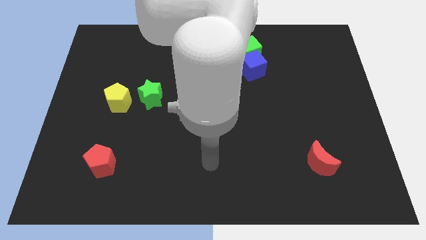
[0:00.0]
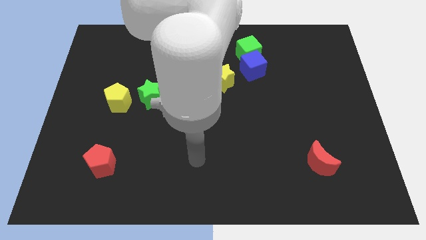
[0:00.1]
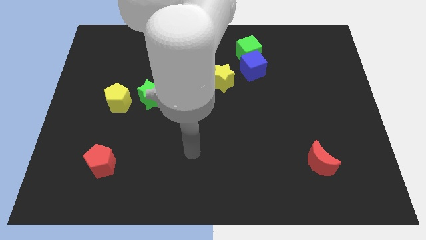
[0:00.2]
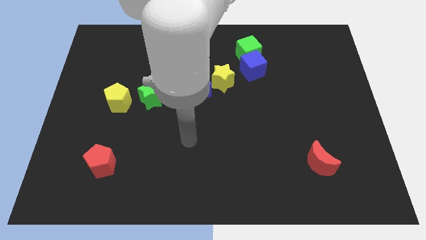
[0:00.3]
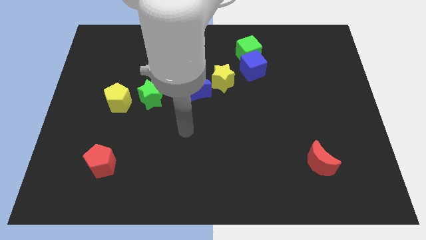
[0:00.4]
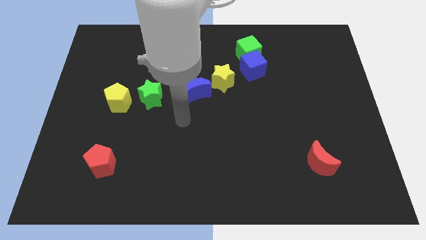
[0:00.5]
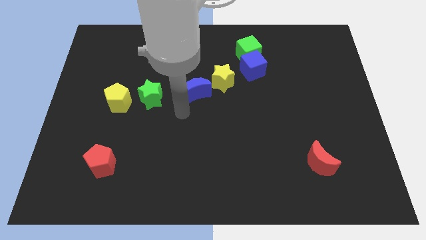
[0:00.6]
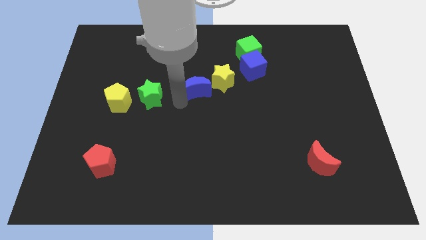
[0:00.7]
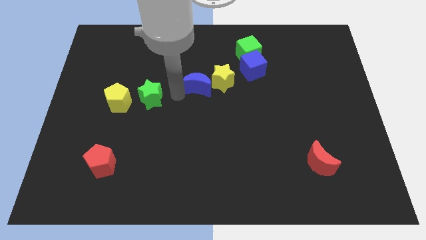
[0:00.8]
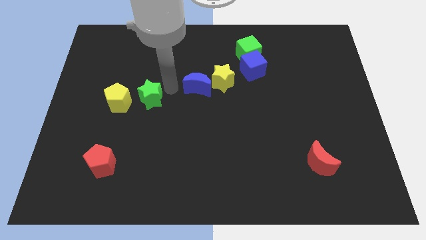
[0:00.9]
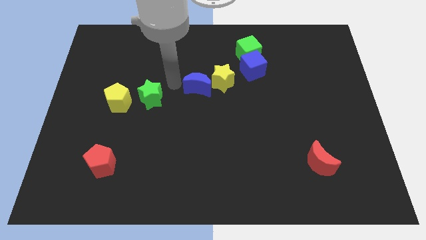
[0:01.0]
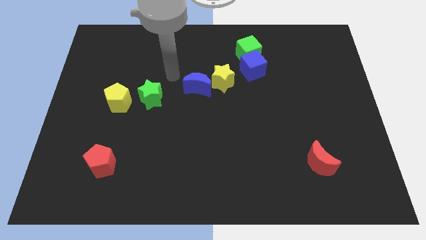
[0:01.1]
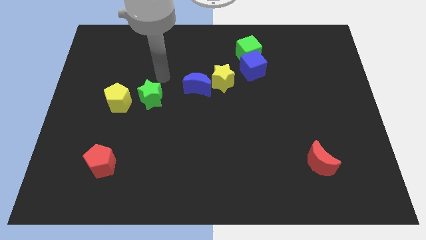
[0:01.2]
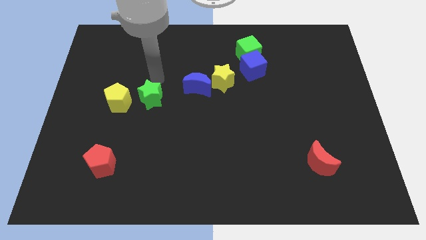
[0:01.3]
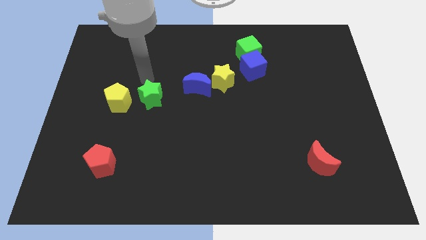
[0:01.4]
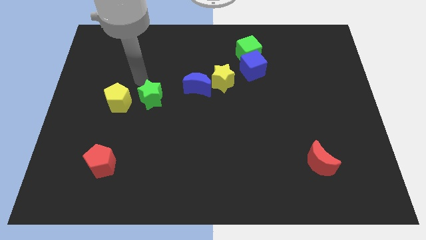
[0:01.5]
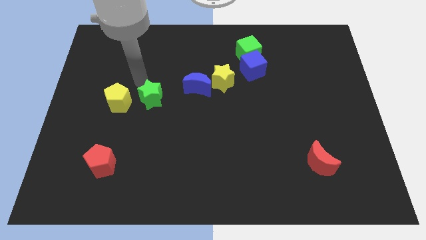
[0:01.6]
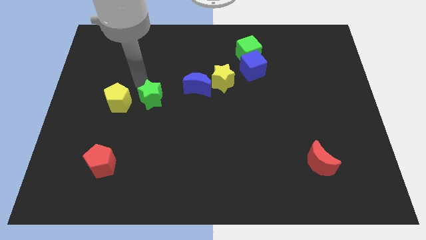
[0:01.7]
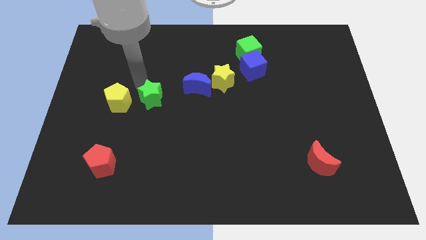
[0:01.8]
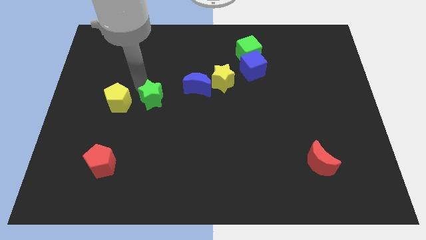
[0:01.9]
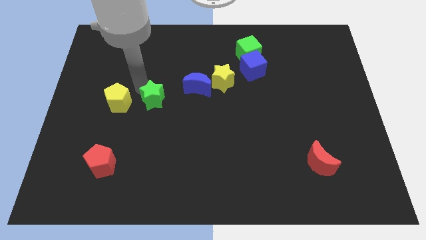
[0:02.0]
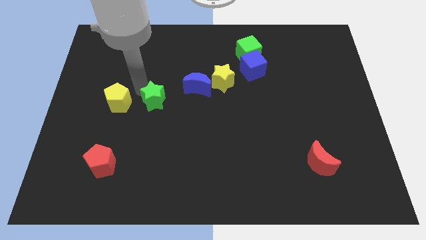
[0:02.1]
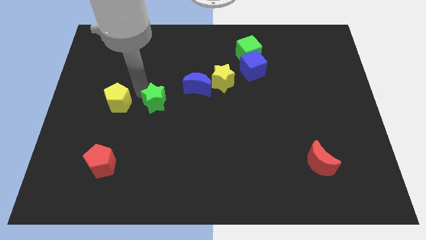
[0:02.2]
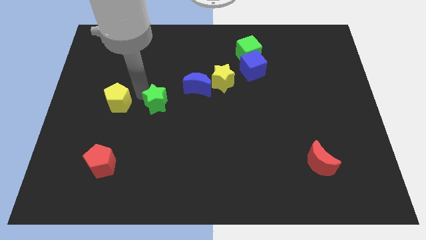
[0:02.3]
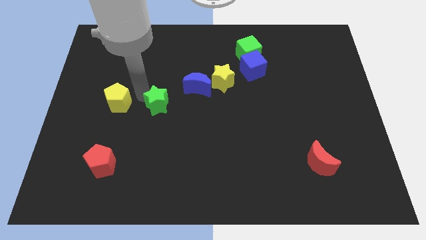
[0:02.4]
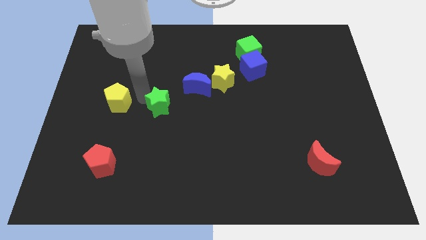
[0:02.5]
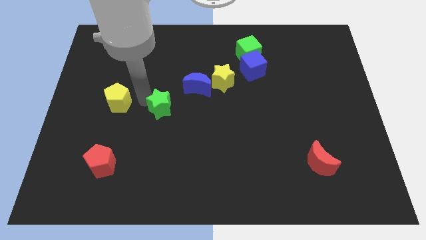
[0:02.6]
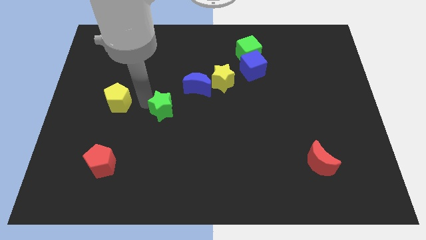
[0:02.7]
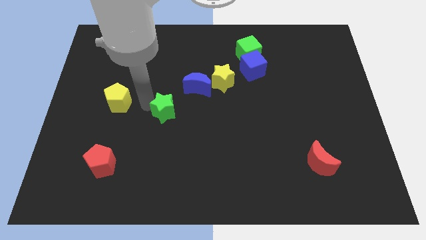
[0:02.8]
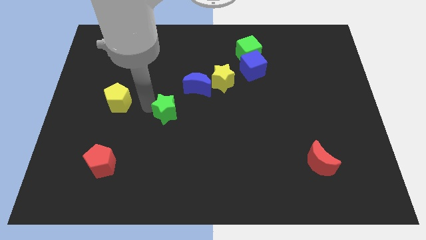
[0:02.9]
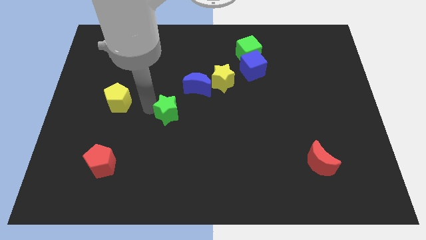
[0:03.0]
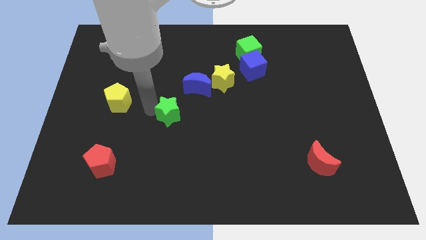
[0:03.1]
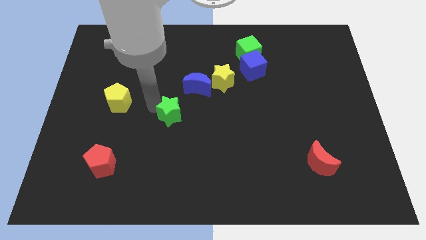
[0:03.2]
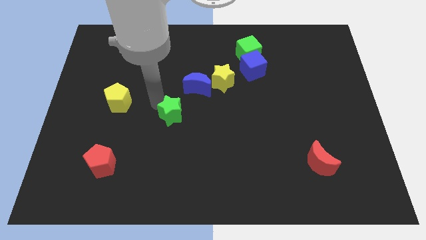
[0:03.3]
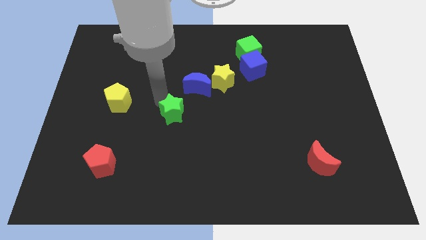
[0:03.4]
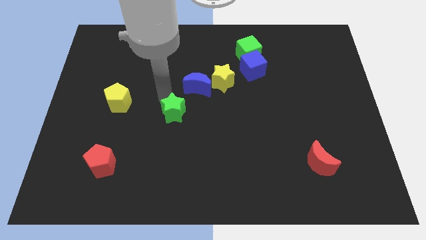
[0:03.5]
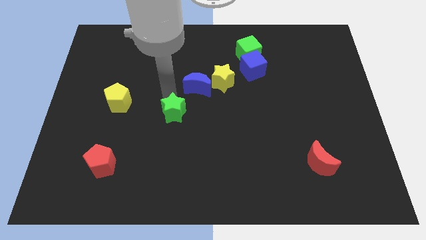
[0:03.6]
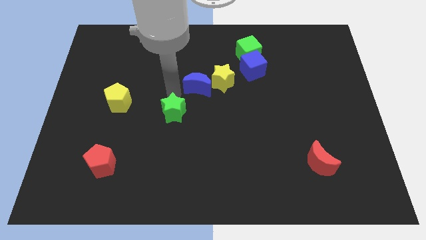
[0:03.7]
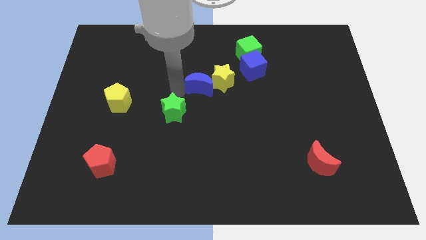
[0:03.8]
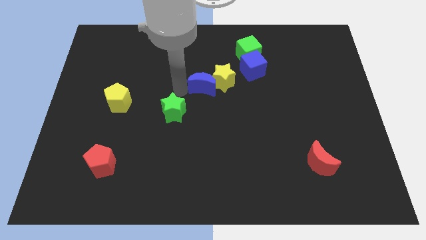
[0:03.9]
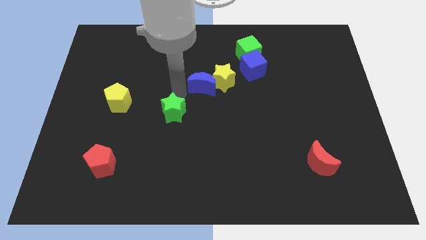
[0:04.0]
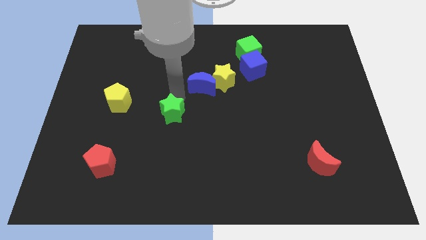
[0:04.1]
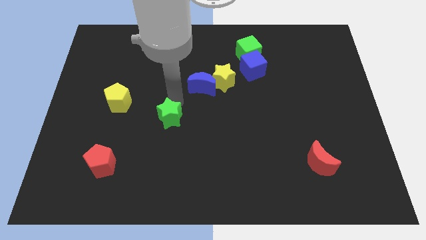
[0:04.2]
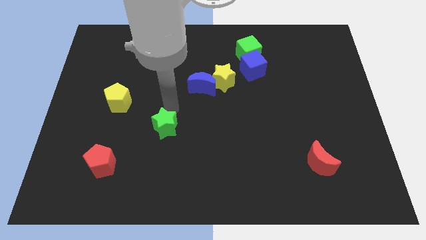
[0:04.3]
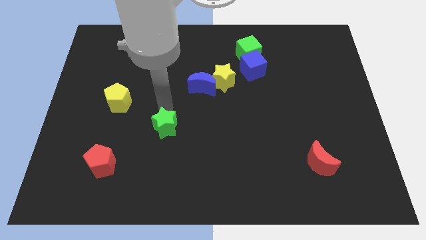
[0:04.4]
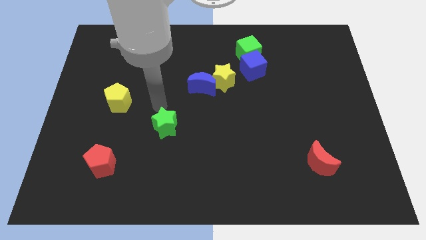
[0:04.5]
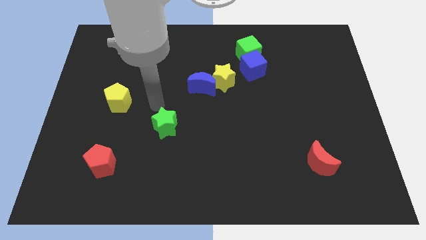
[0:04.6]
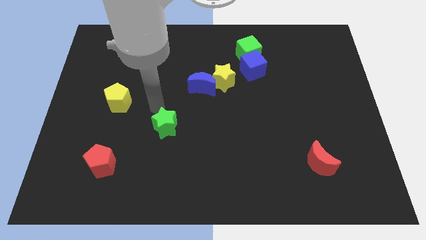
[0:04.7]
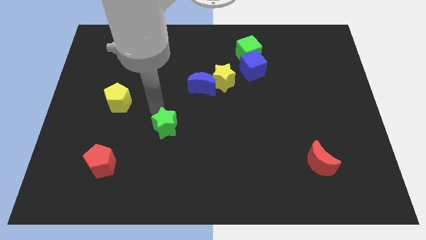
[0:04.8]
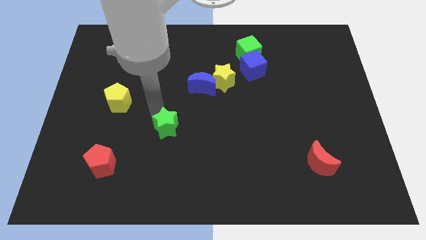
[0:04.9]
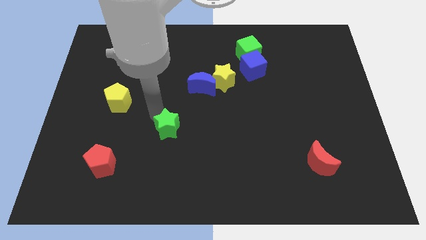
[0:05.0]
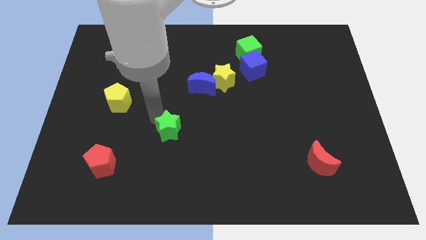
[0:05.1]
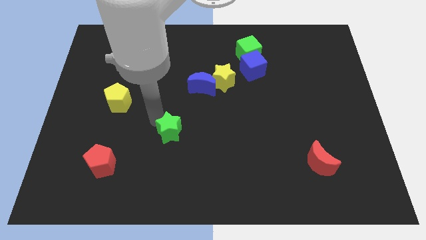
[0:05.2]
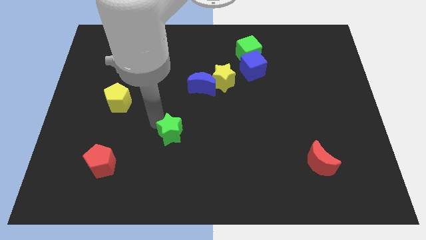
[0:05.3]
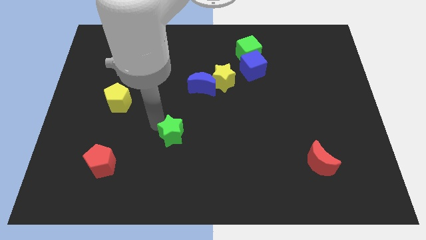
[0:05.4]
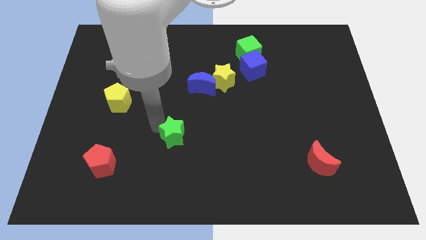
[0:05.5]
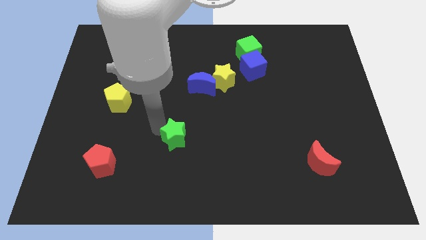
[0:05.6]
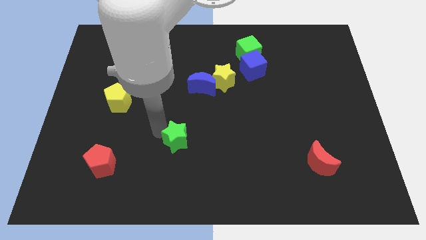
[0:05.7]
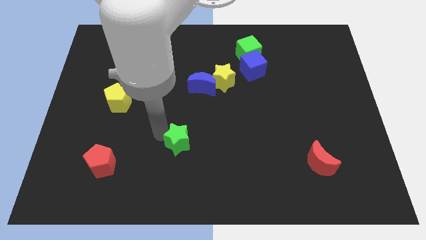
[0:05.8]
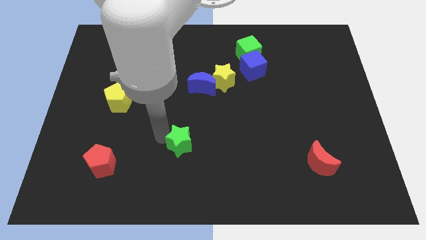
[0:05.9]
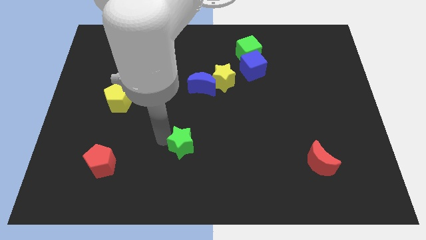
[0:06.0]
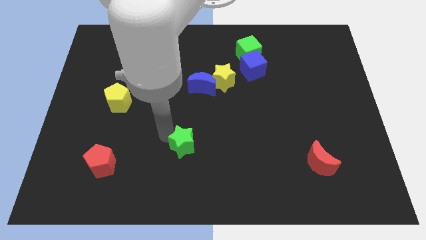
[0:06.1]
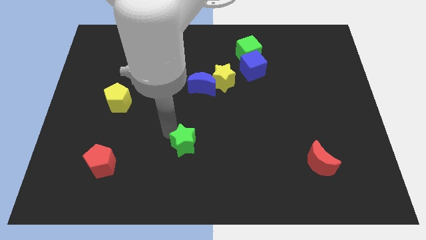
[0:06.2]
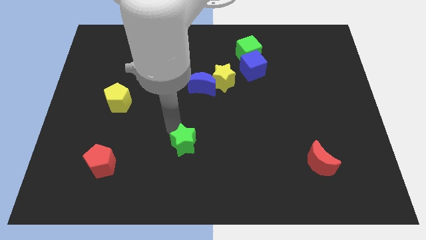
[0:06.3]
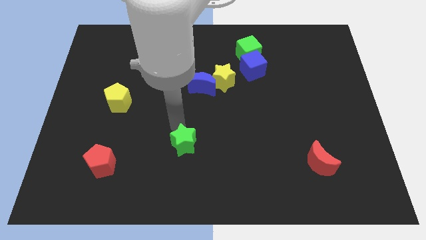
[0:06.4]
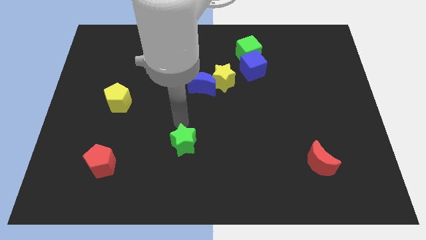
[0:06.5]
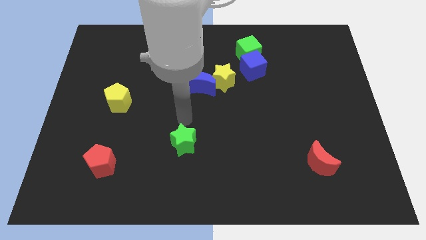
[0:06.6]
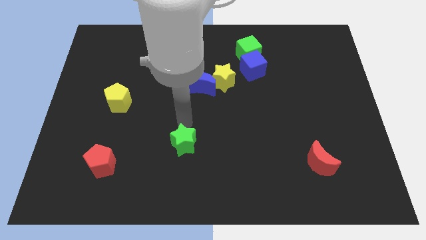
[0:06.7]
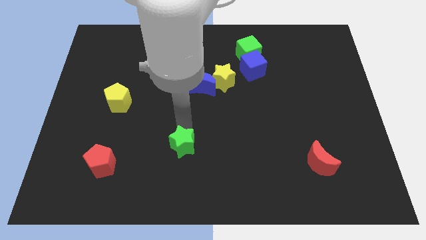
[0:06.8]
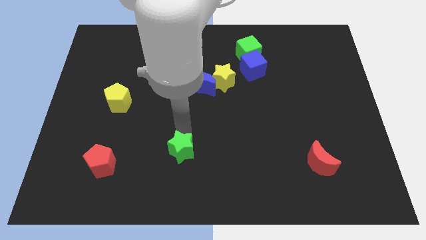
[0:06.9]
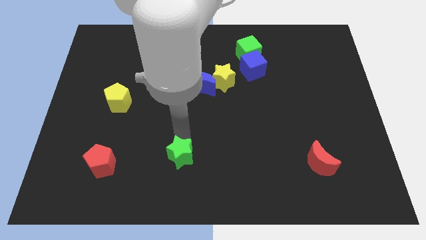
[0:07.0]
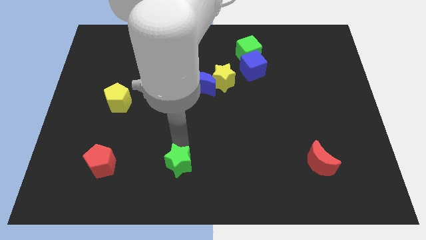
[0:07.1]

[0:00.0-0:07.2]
push the green star to the bottom
